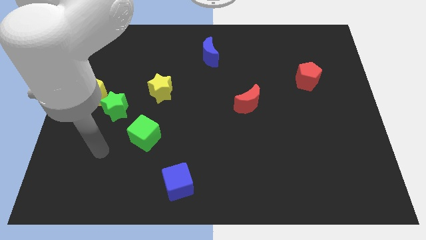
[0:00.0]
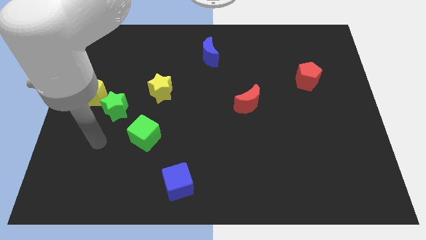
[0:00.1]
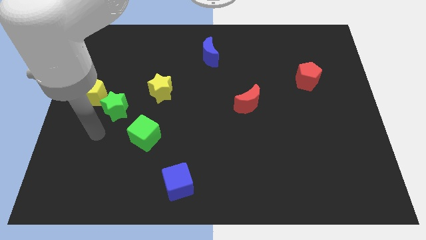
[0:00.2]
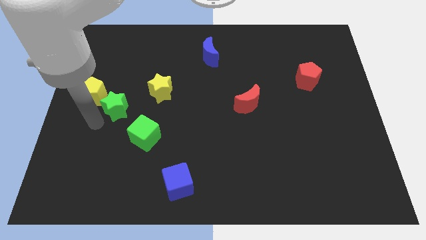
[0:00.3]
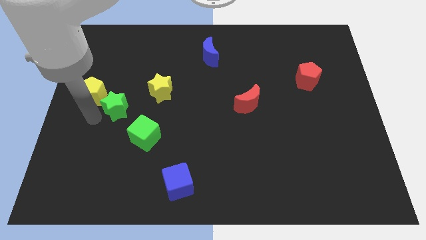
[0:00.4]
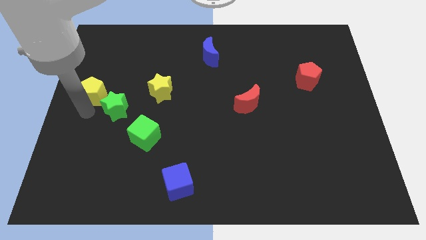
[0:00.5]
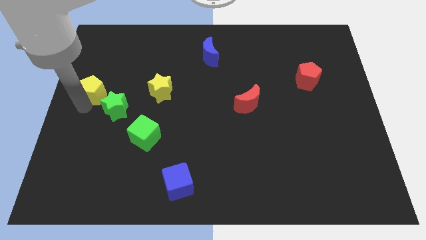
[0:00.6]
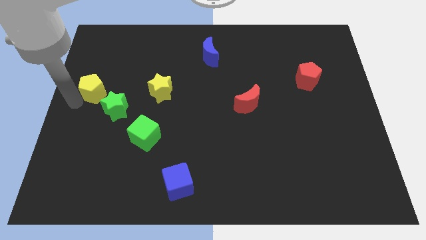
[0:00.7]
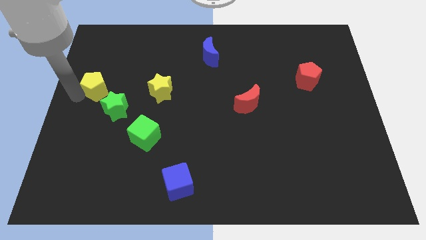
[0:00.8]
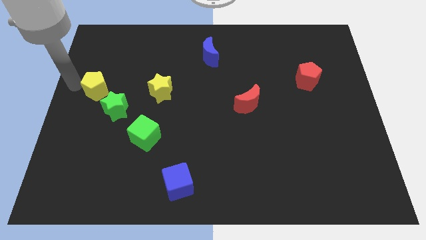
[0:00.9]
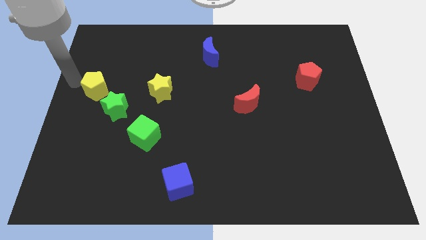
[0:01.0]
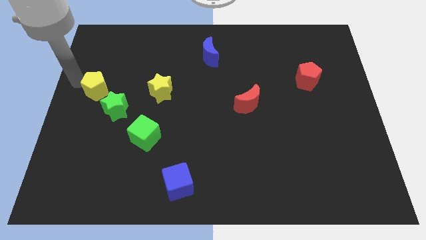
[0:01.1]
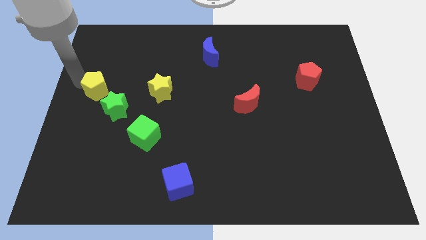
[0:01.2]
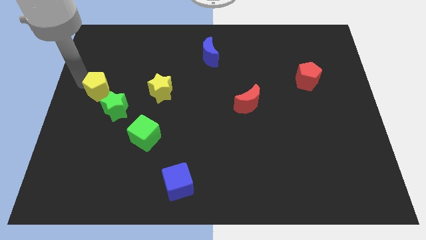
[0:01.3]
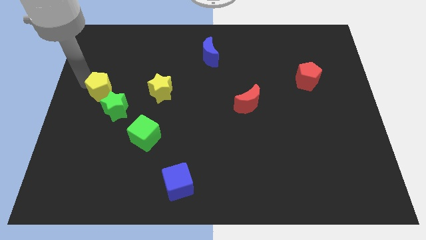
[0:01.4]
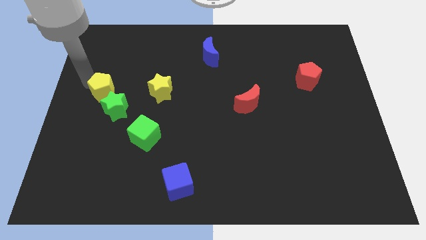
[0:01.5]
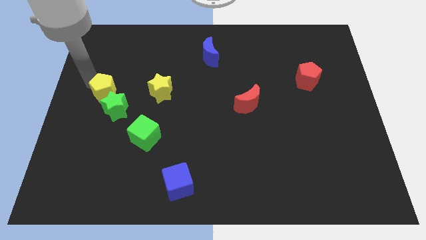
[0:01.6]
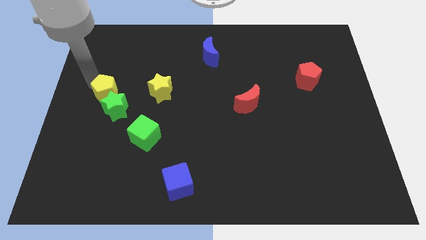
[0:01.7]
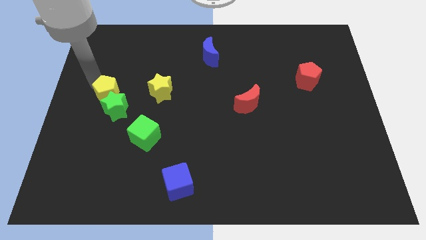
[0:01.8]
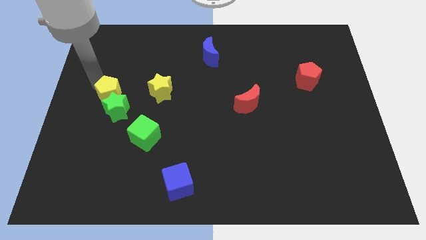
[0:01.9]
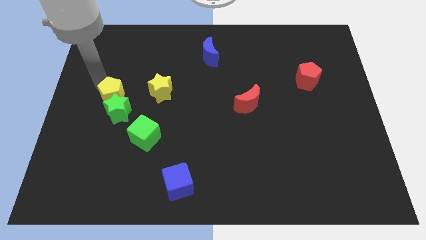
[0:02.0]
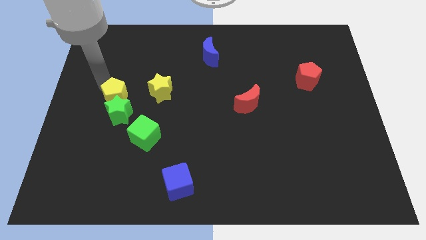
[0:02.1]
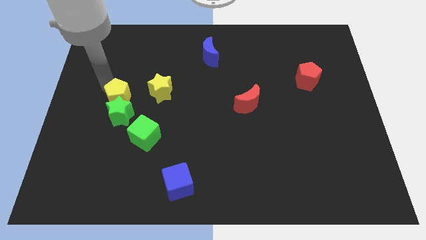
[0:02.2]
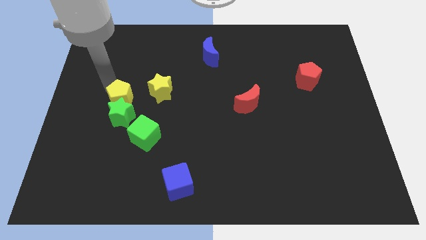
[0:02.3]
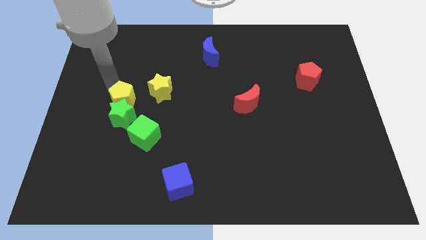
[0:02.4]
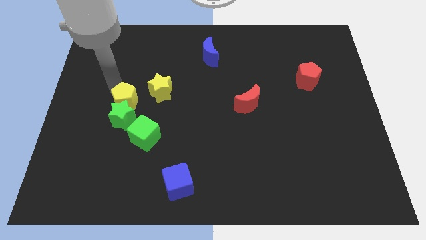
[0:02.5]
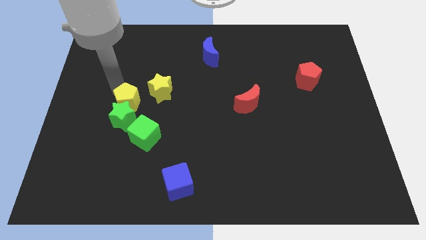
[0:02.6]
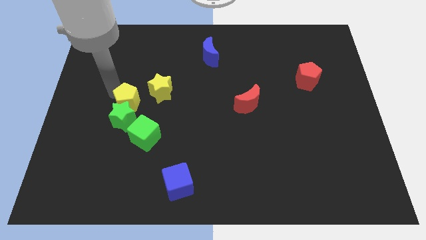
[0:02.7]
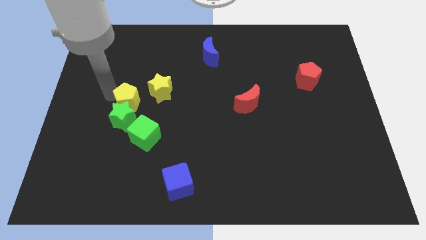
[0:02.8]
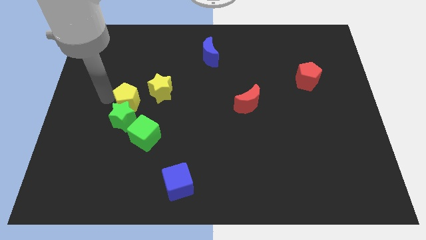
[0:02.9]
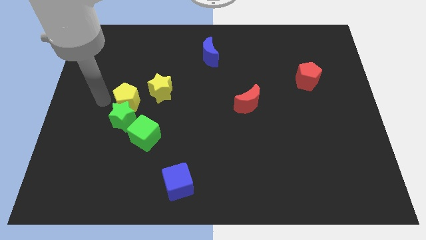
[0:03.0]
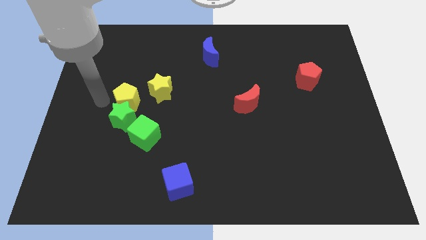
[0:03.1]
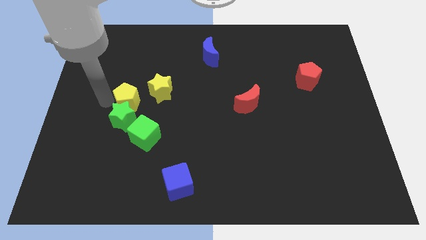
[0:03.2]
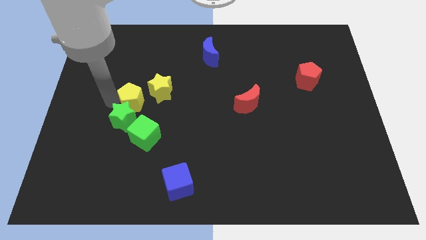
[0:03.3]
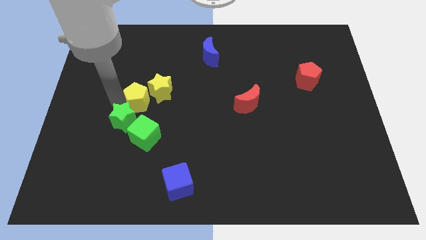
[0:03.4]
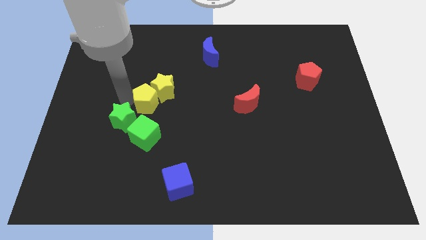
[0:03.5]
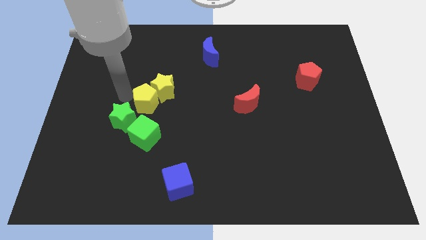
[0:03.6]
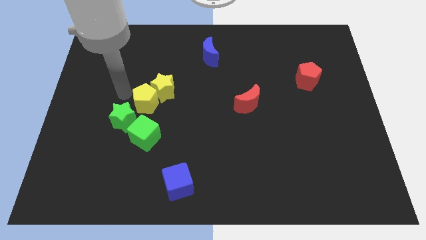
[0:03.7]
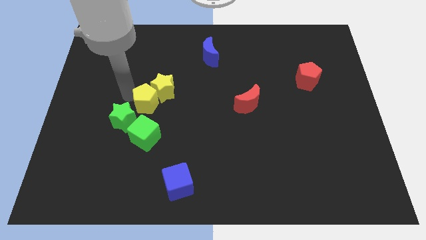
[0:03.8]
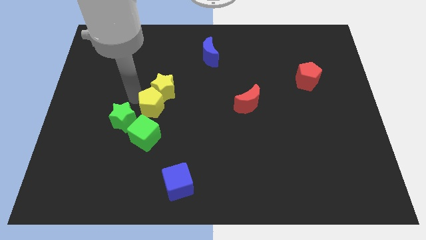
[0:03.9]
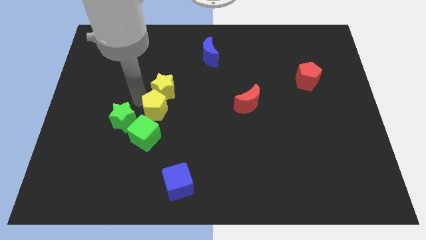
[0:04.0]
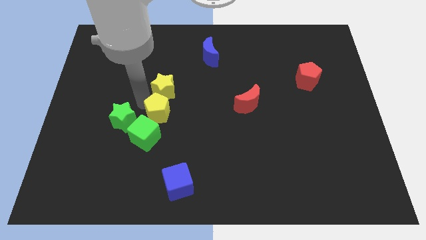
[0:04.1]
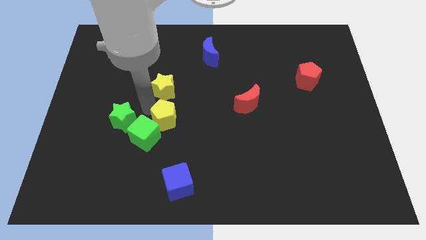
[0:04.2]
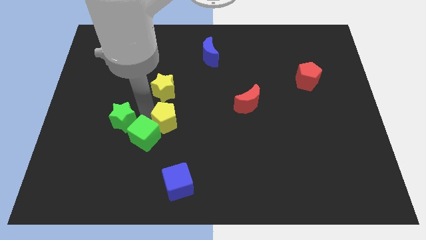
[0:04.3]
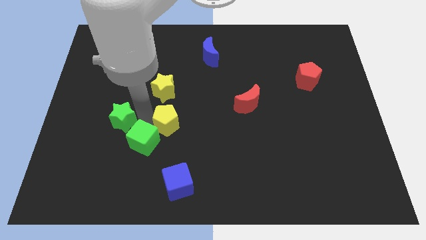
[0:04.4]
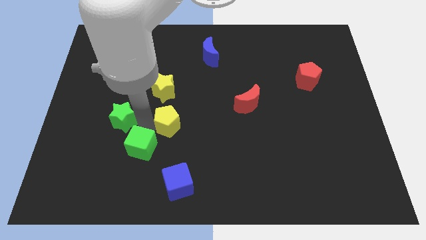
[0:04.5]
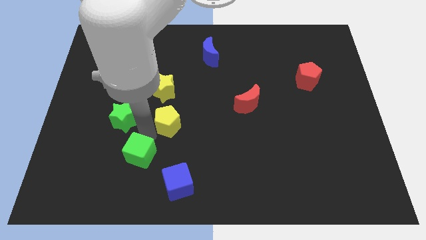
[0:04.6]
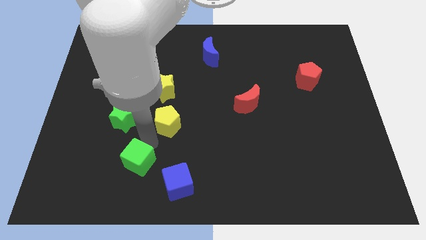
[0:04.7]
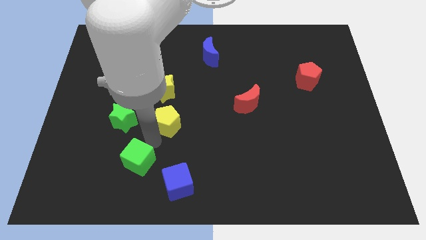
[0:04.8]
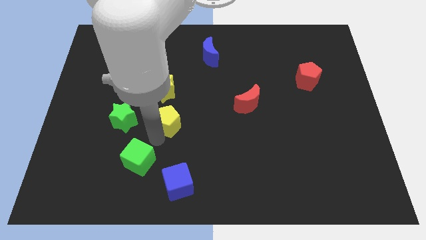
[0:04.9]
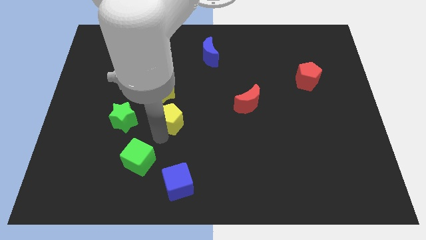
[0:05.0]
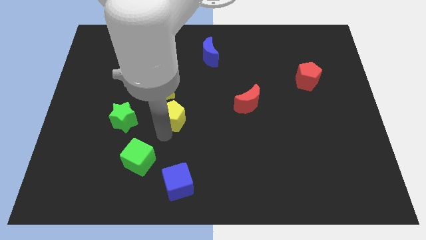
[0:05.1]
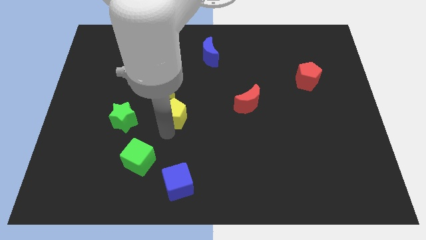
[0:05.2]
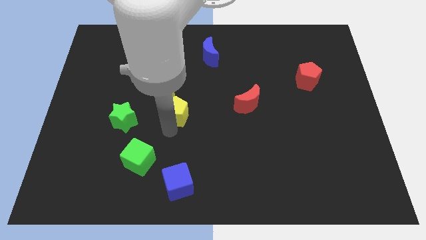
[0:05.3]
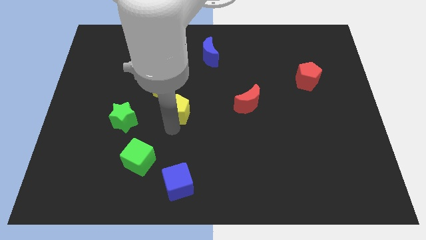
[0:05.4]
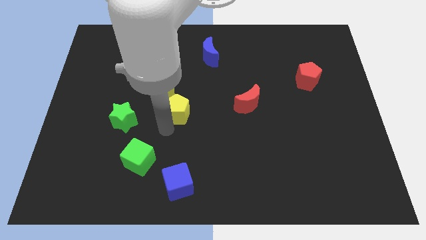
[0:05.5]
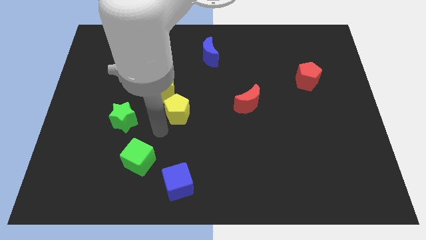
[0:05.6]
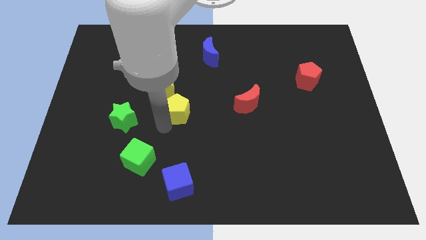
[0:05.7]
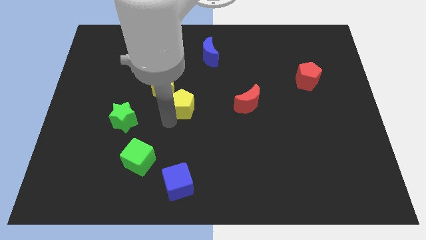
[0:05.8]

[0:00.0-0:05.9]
push the yellow pentagon to the right

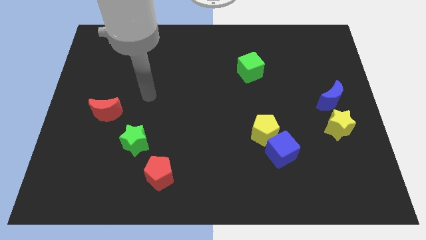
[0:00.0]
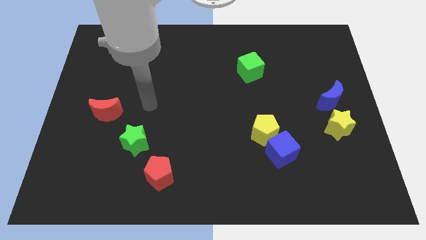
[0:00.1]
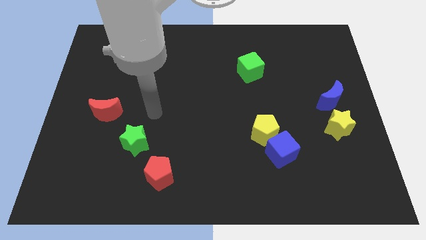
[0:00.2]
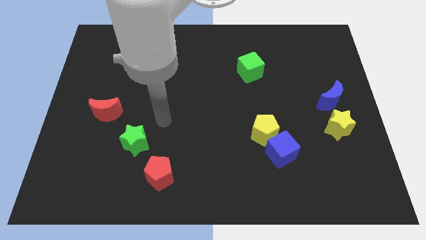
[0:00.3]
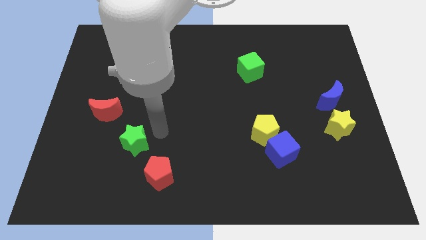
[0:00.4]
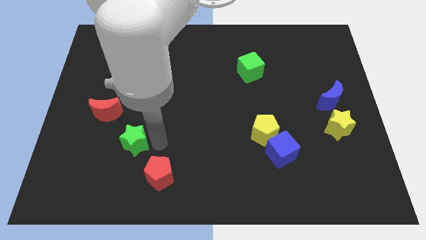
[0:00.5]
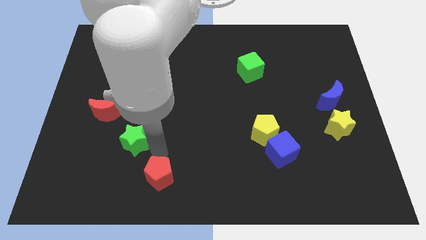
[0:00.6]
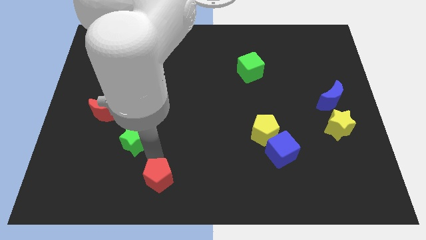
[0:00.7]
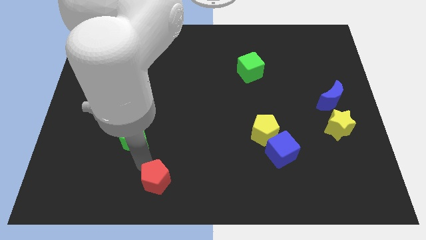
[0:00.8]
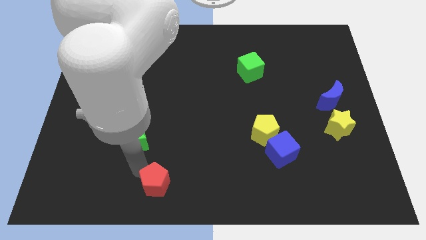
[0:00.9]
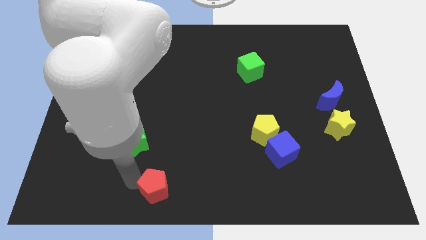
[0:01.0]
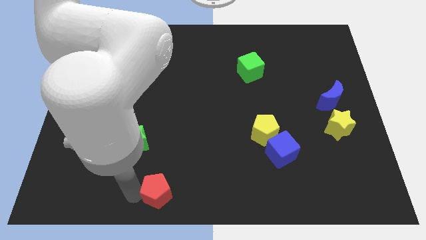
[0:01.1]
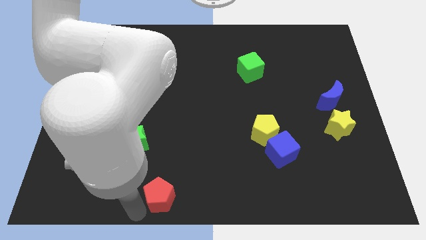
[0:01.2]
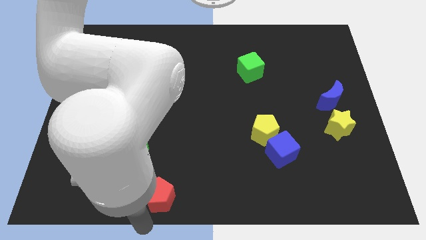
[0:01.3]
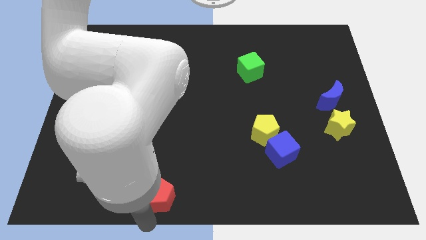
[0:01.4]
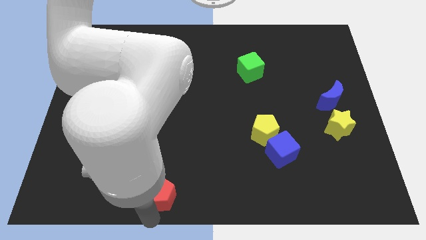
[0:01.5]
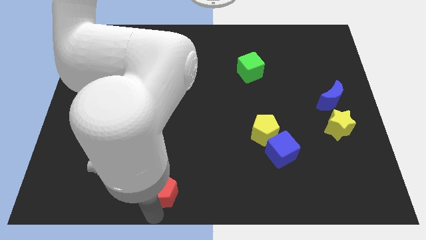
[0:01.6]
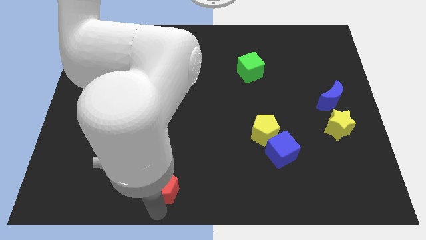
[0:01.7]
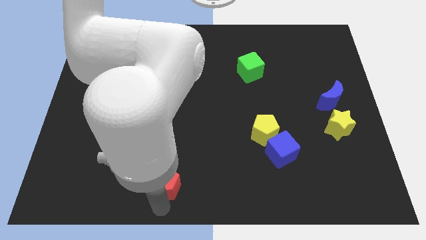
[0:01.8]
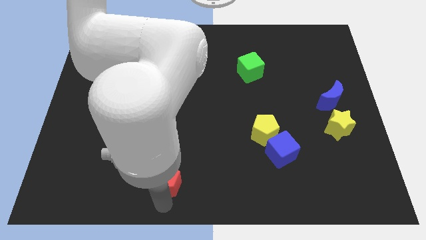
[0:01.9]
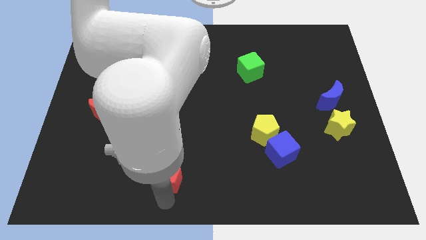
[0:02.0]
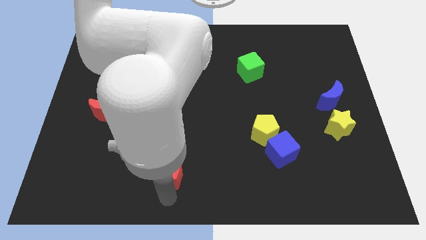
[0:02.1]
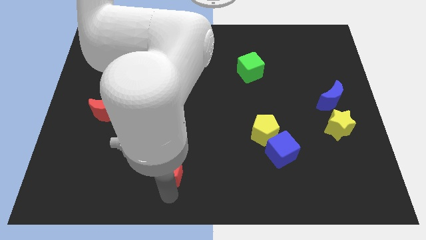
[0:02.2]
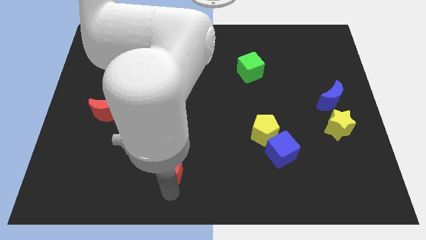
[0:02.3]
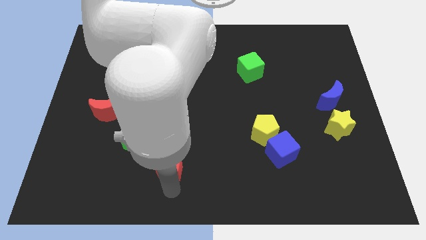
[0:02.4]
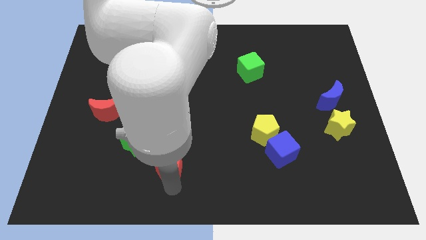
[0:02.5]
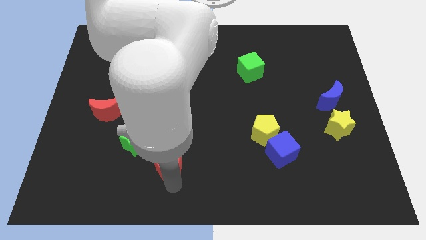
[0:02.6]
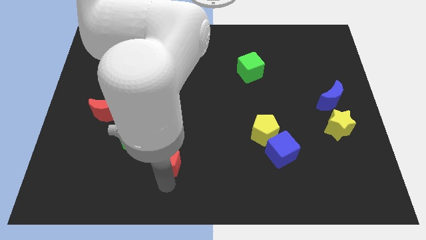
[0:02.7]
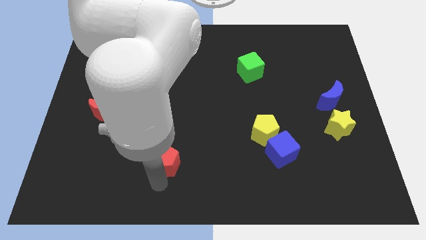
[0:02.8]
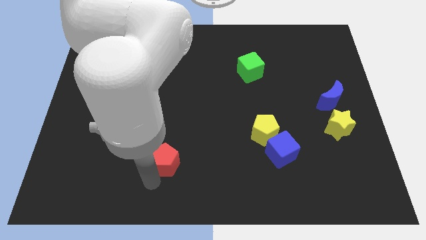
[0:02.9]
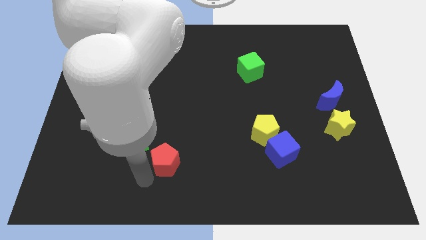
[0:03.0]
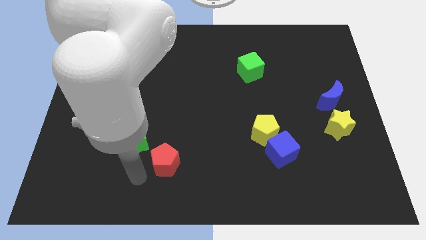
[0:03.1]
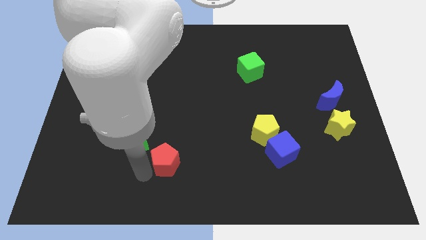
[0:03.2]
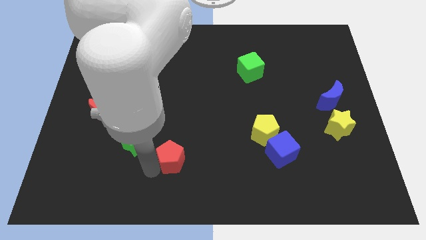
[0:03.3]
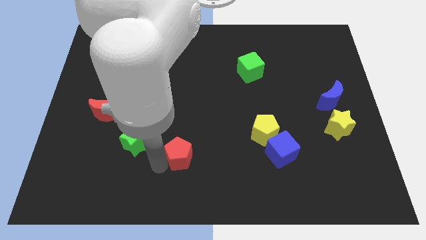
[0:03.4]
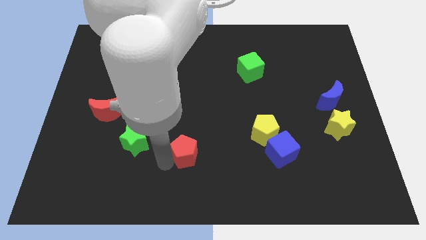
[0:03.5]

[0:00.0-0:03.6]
move the red pentagon somewhat upwards and then right
